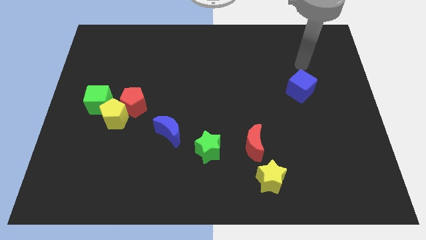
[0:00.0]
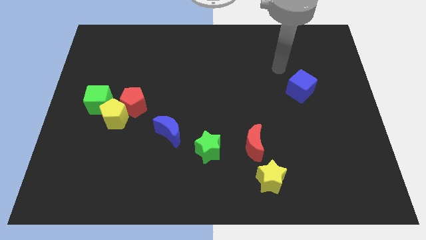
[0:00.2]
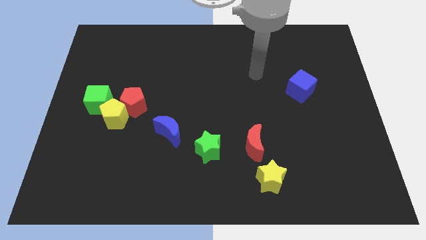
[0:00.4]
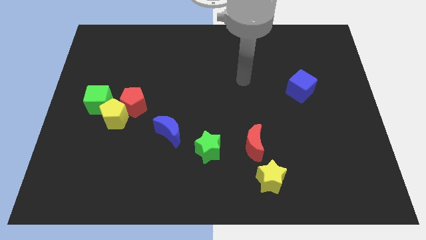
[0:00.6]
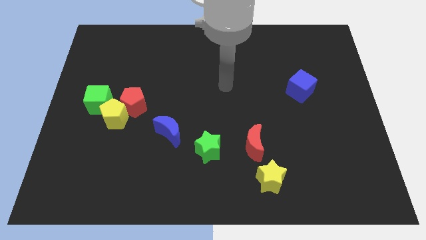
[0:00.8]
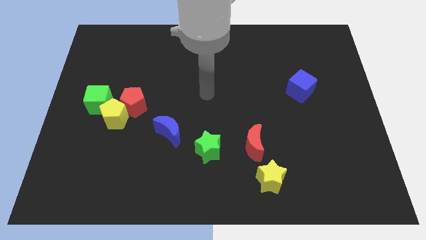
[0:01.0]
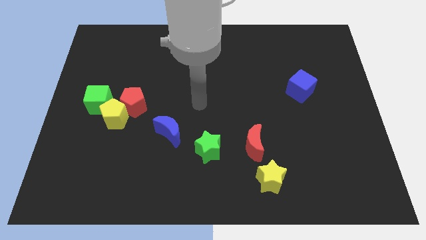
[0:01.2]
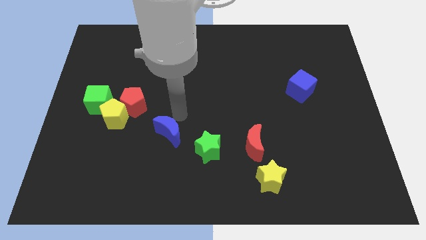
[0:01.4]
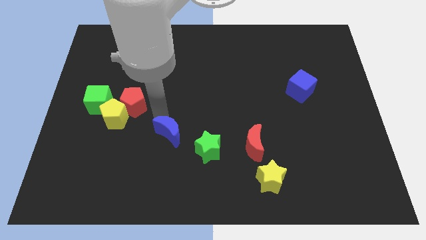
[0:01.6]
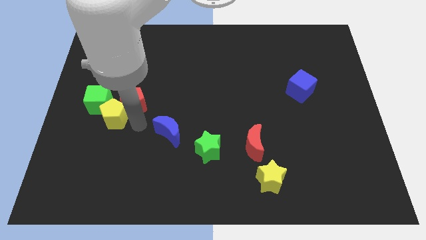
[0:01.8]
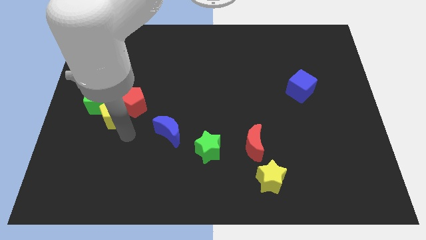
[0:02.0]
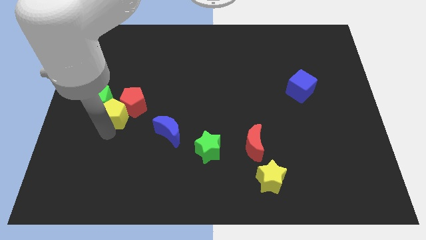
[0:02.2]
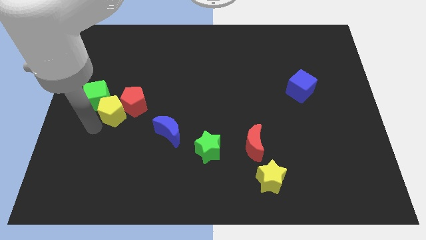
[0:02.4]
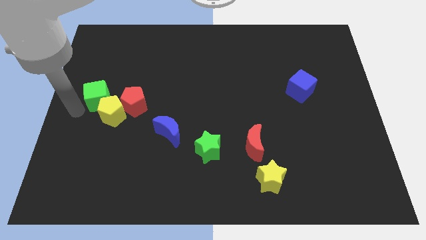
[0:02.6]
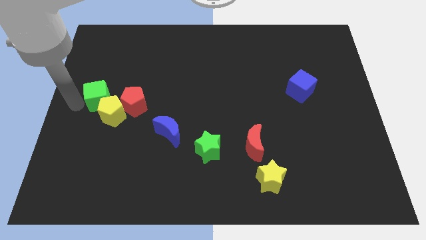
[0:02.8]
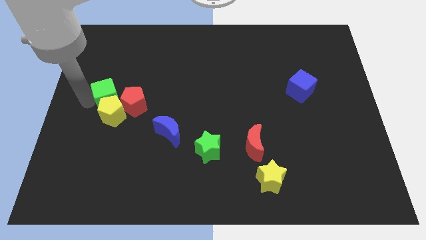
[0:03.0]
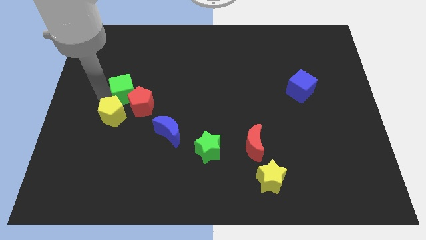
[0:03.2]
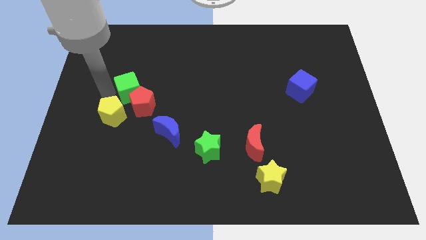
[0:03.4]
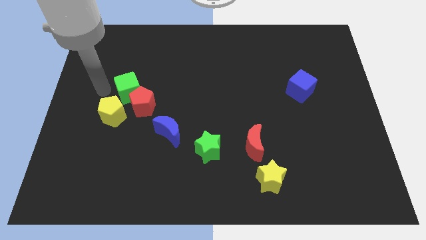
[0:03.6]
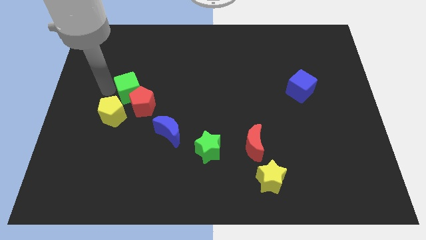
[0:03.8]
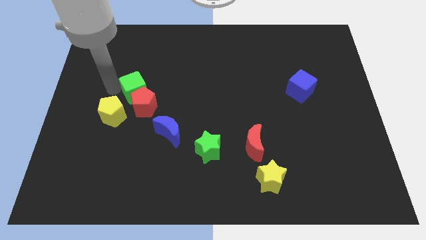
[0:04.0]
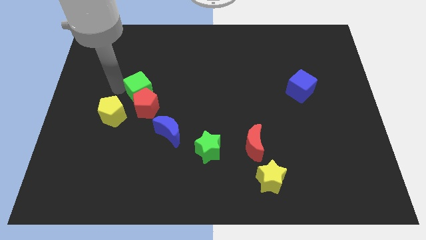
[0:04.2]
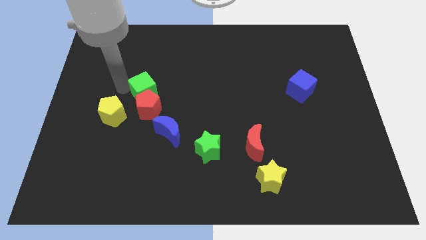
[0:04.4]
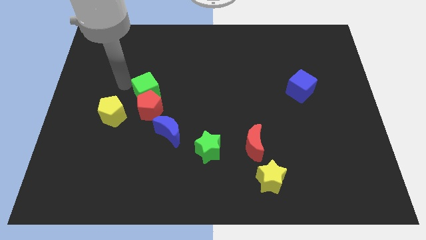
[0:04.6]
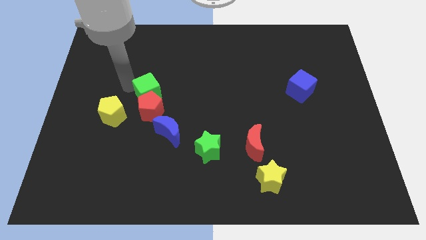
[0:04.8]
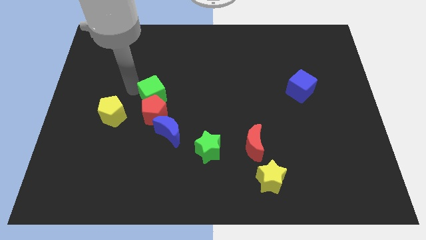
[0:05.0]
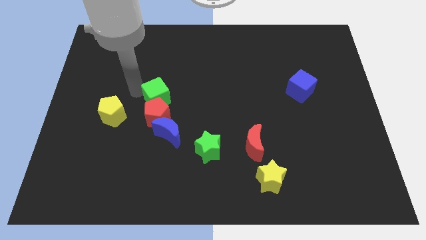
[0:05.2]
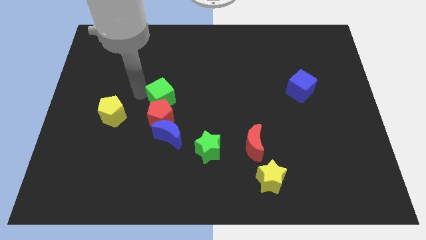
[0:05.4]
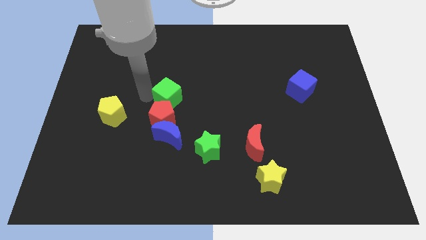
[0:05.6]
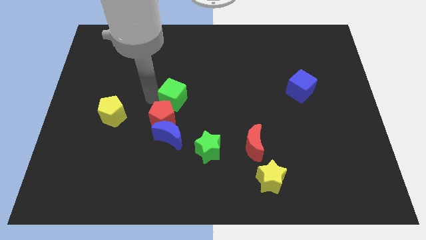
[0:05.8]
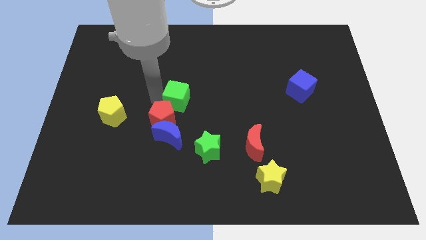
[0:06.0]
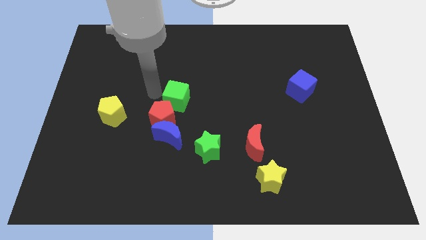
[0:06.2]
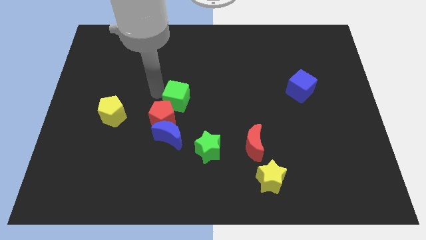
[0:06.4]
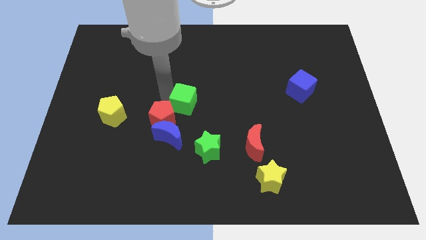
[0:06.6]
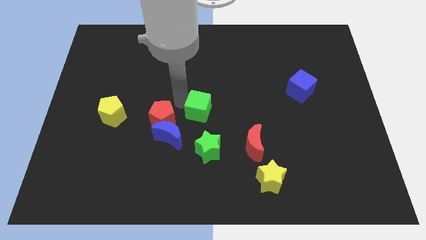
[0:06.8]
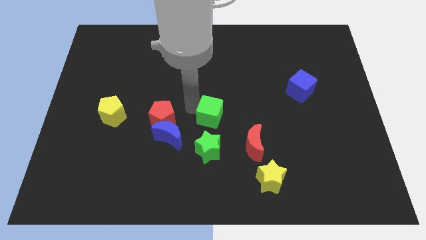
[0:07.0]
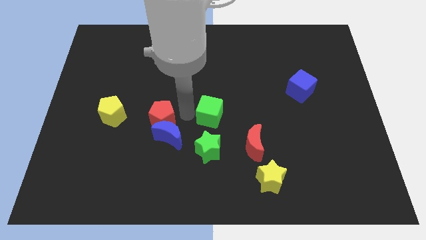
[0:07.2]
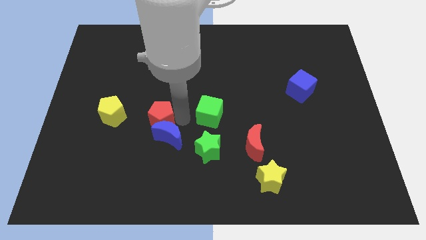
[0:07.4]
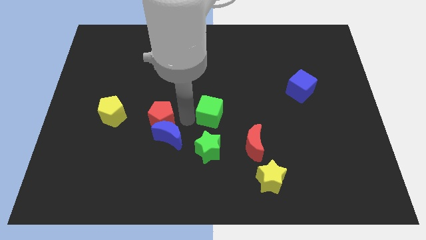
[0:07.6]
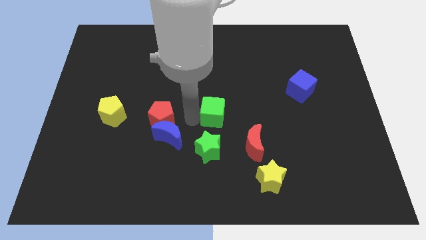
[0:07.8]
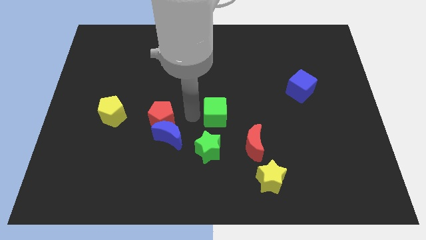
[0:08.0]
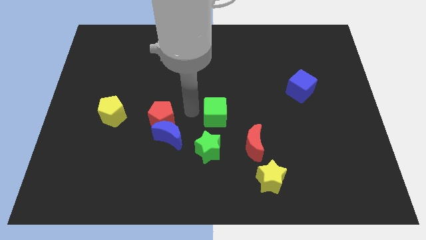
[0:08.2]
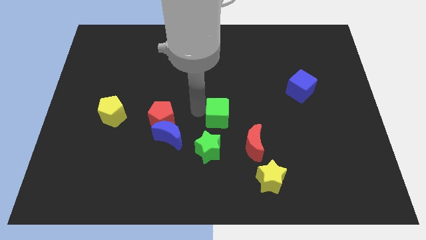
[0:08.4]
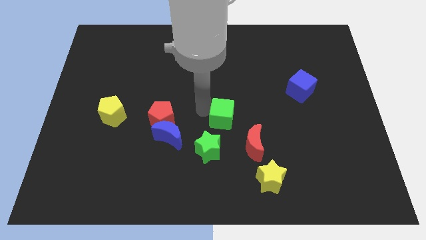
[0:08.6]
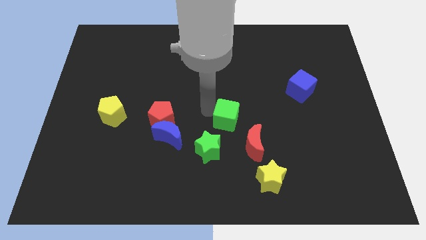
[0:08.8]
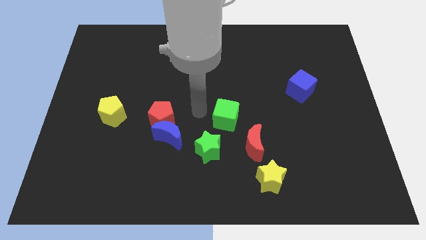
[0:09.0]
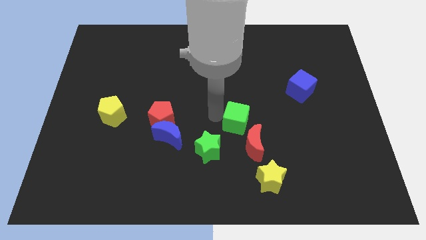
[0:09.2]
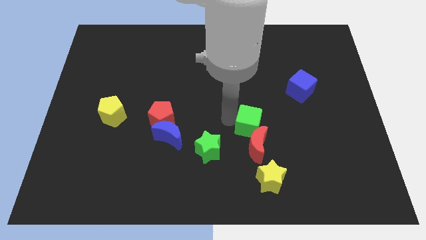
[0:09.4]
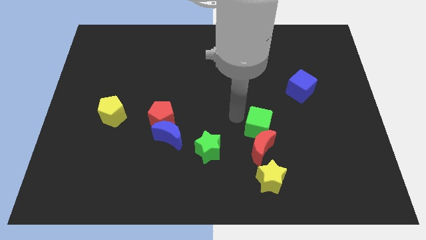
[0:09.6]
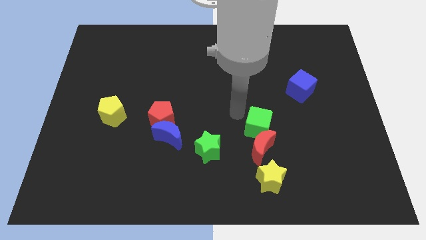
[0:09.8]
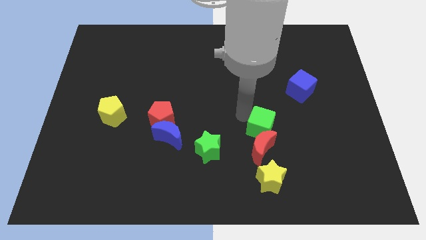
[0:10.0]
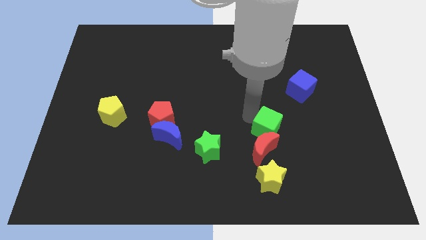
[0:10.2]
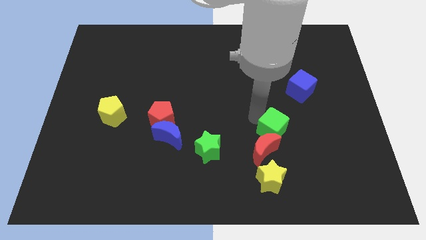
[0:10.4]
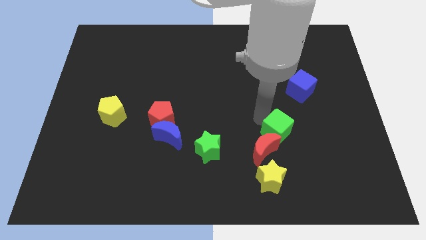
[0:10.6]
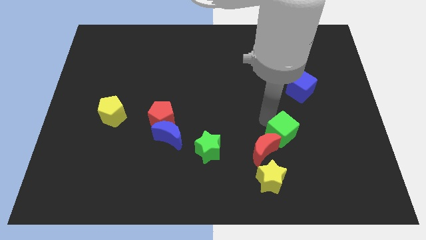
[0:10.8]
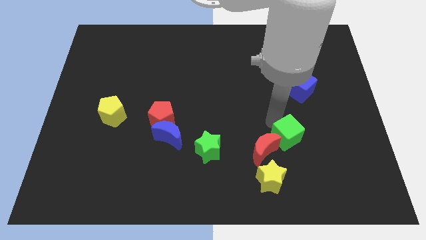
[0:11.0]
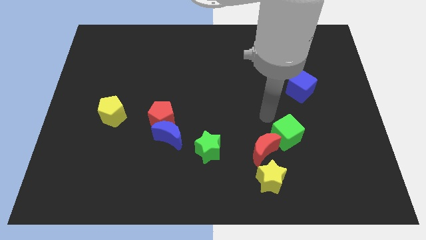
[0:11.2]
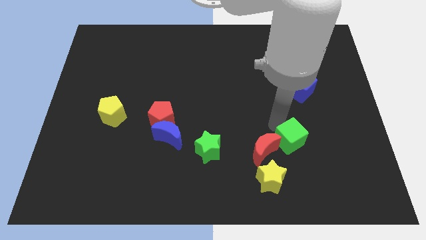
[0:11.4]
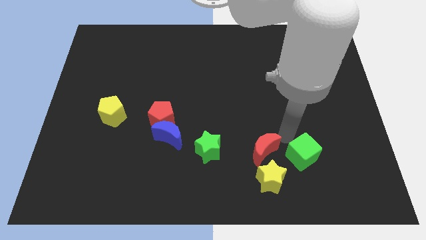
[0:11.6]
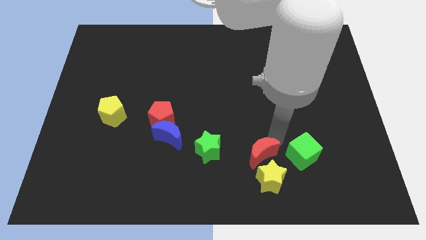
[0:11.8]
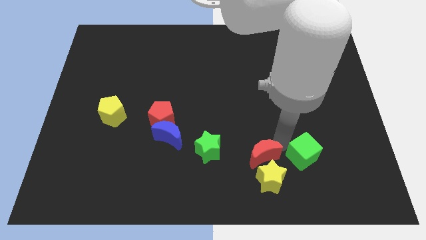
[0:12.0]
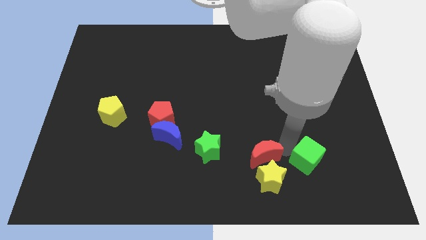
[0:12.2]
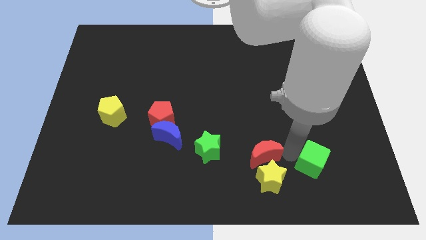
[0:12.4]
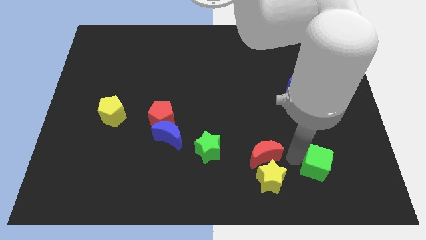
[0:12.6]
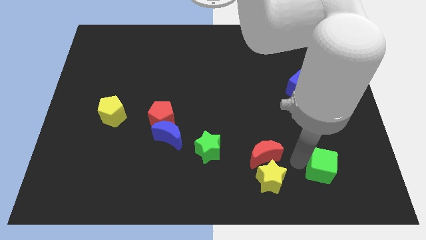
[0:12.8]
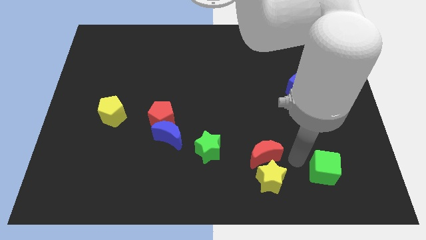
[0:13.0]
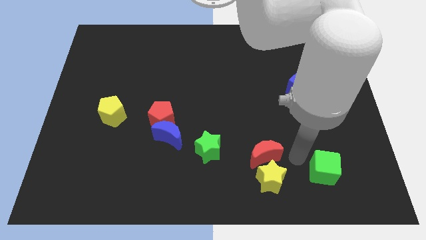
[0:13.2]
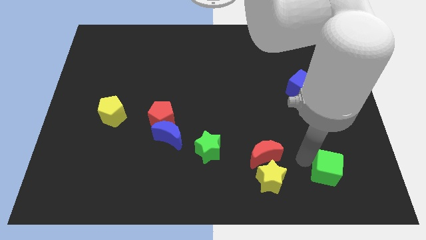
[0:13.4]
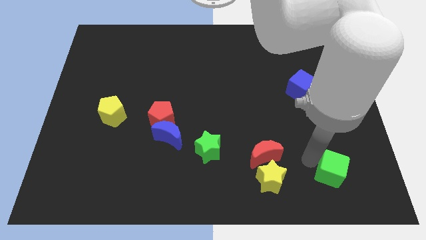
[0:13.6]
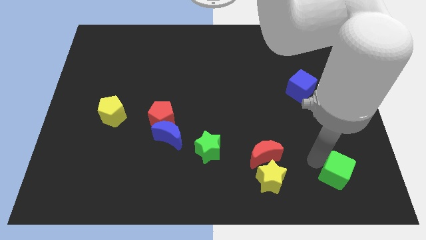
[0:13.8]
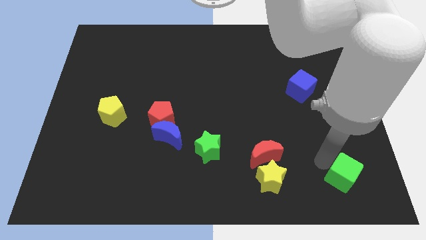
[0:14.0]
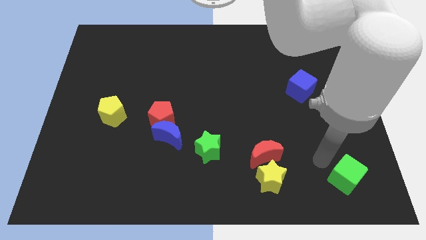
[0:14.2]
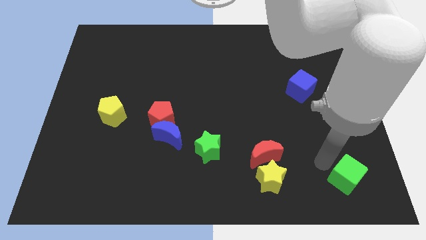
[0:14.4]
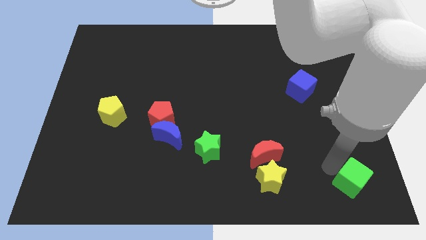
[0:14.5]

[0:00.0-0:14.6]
put the green cube to the bottom right

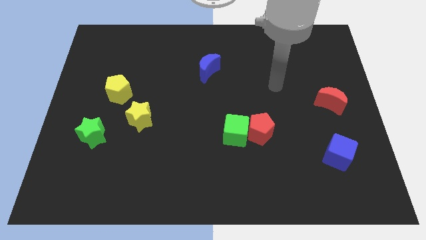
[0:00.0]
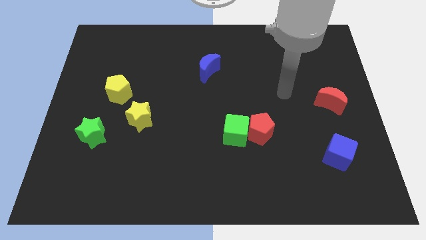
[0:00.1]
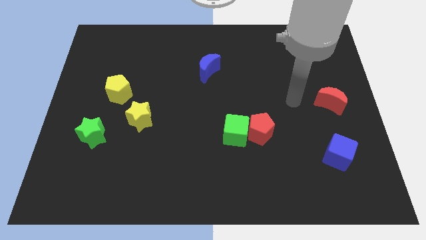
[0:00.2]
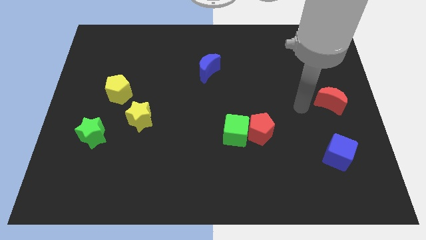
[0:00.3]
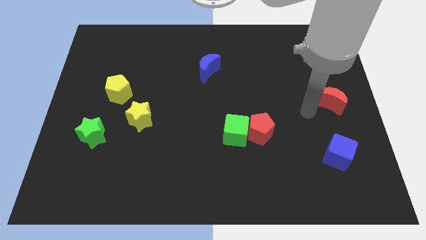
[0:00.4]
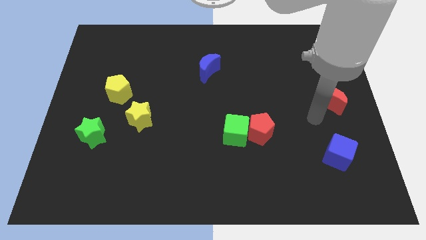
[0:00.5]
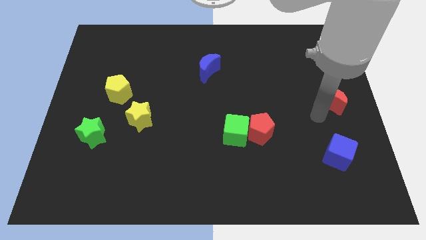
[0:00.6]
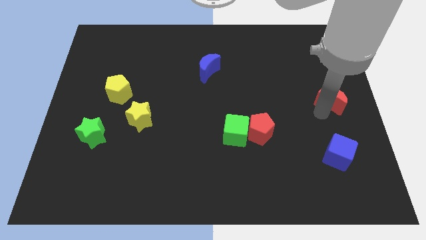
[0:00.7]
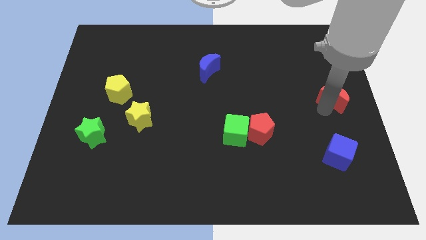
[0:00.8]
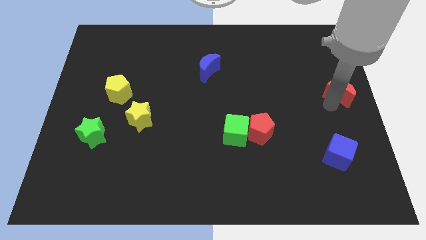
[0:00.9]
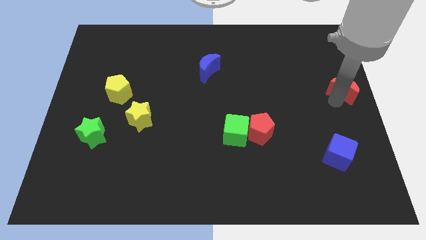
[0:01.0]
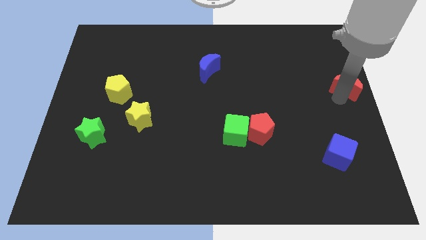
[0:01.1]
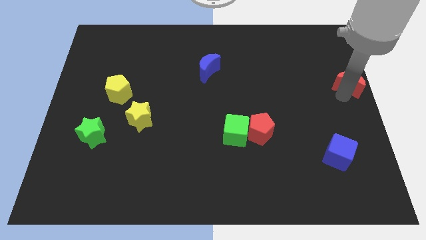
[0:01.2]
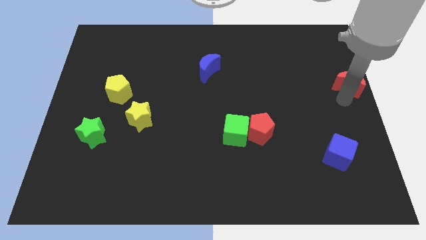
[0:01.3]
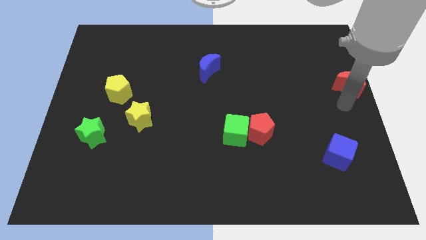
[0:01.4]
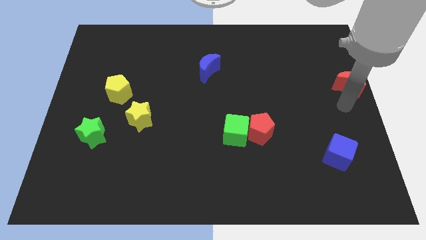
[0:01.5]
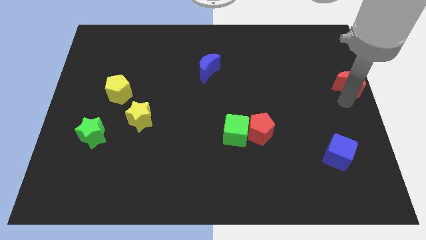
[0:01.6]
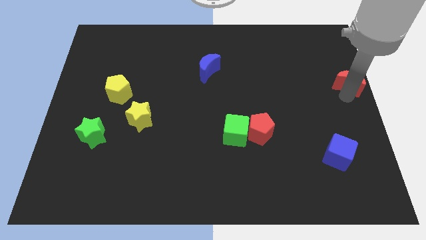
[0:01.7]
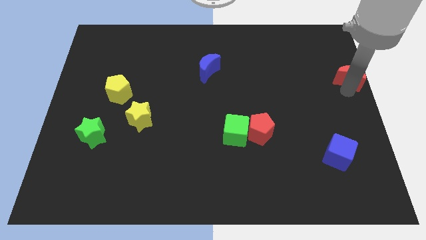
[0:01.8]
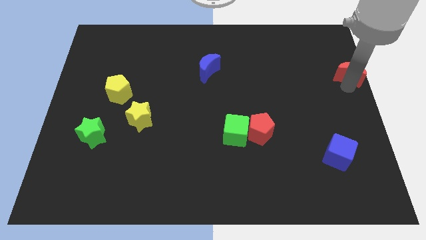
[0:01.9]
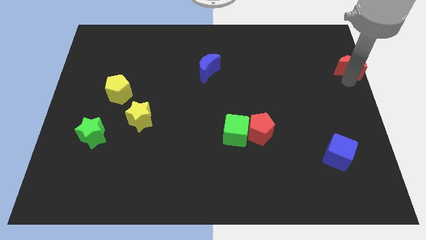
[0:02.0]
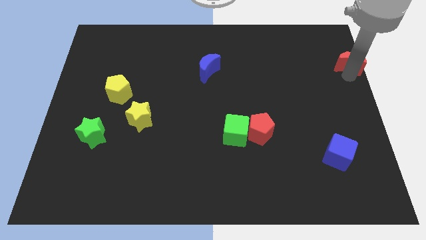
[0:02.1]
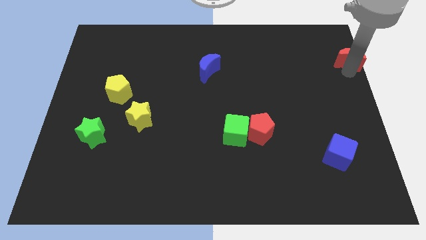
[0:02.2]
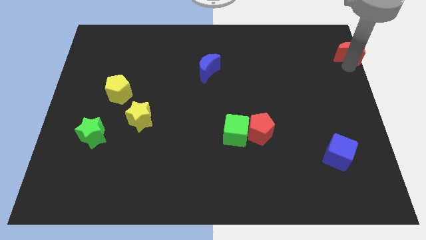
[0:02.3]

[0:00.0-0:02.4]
push the red moon to the top right of the board
